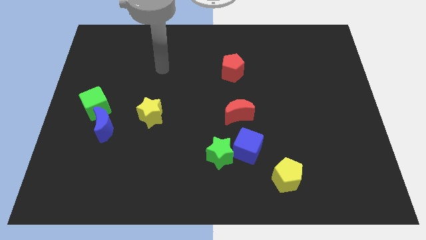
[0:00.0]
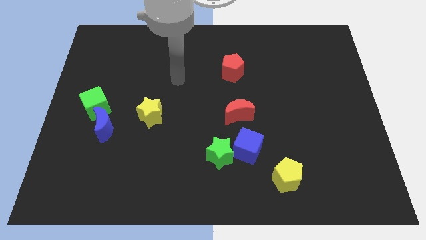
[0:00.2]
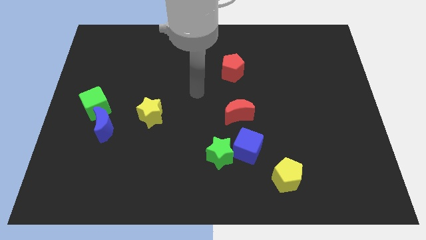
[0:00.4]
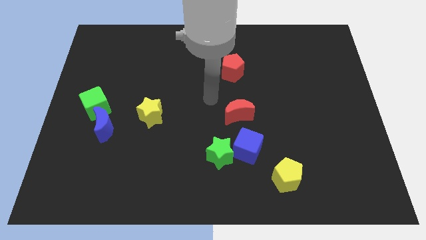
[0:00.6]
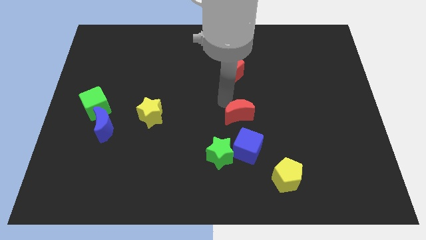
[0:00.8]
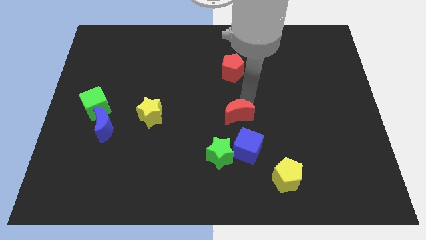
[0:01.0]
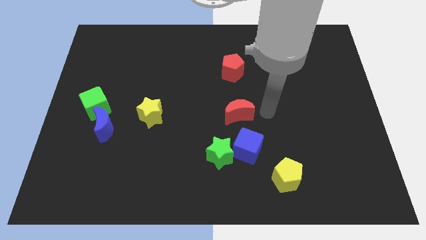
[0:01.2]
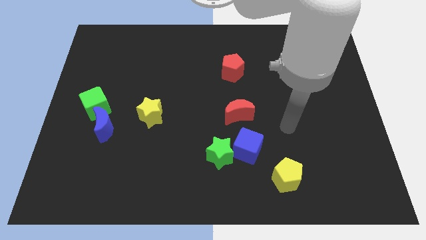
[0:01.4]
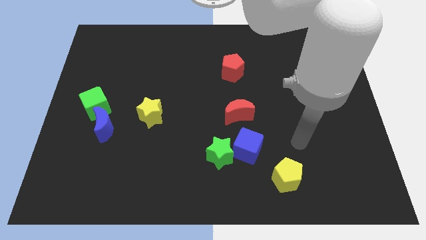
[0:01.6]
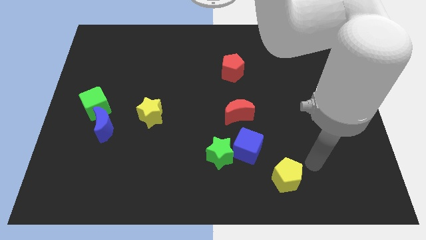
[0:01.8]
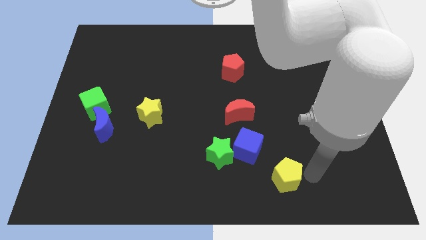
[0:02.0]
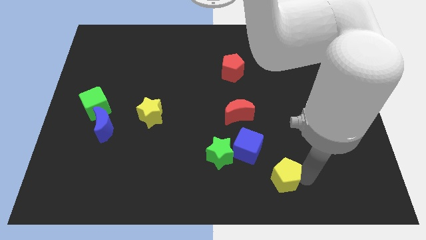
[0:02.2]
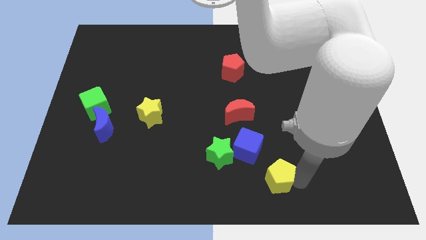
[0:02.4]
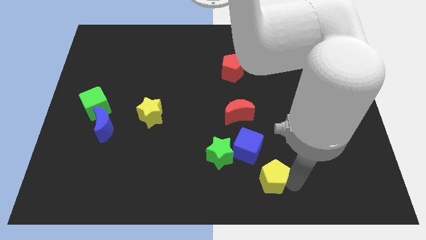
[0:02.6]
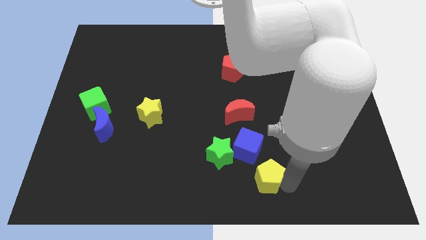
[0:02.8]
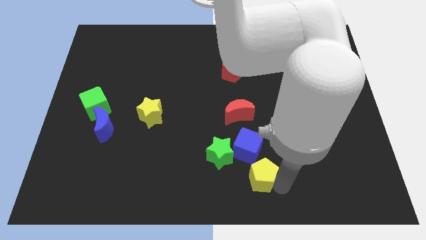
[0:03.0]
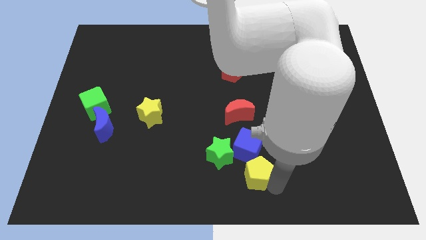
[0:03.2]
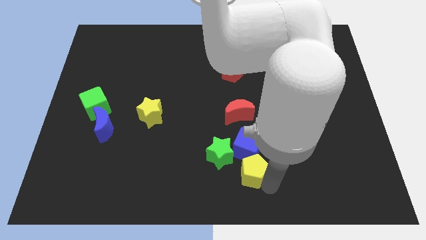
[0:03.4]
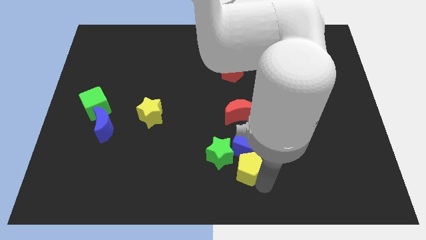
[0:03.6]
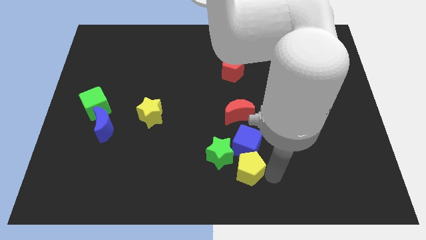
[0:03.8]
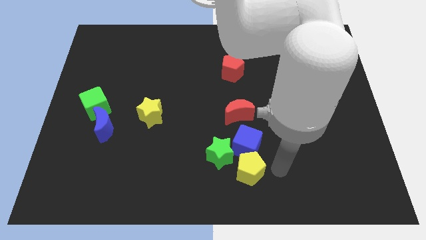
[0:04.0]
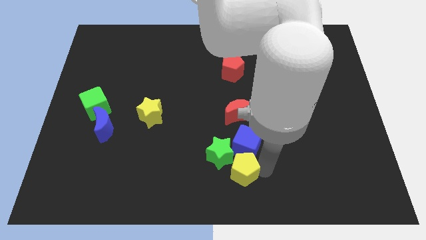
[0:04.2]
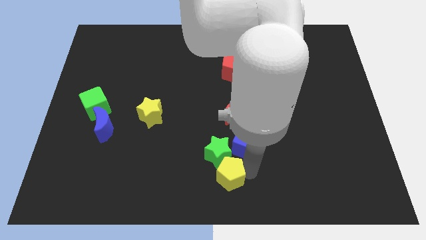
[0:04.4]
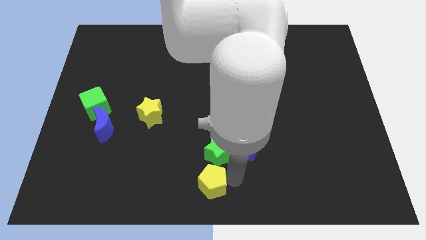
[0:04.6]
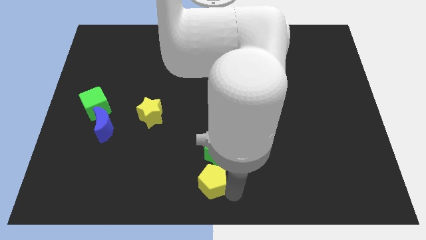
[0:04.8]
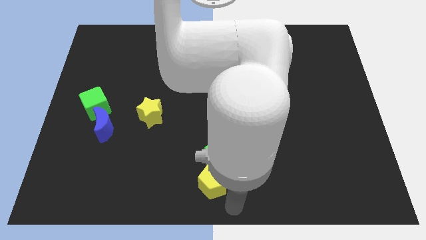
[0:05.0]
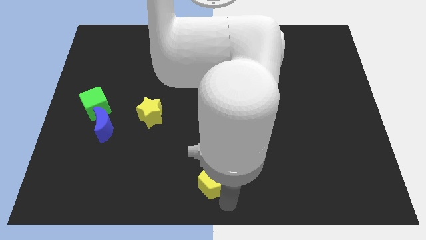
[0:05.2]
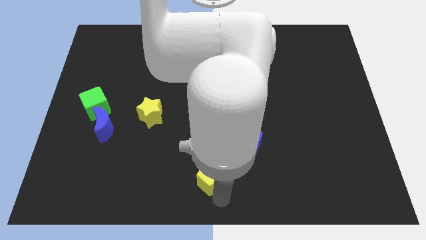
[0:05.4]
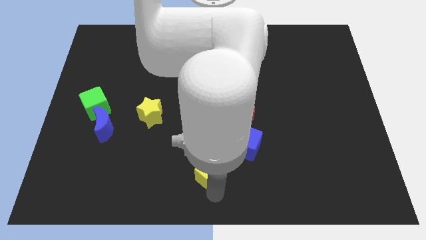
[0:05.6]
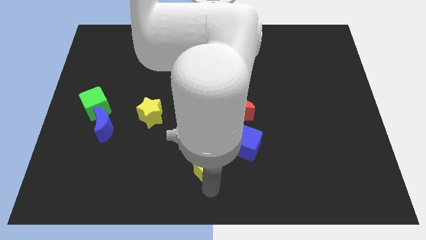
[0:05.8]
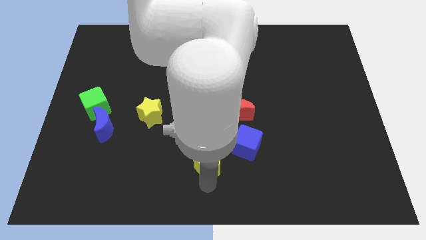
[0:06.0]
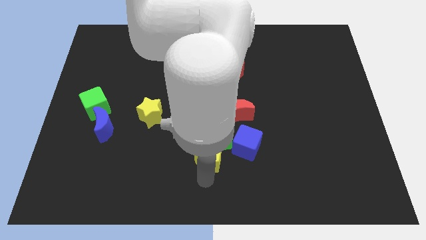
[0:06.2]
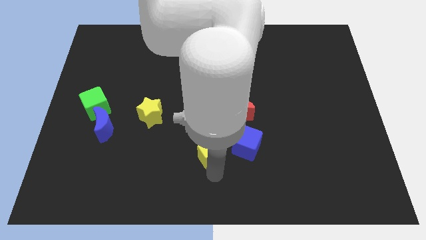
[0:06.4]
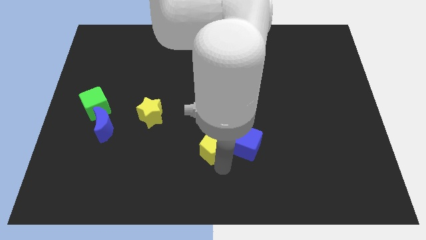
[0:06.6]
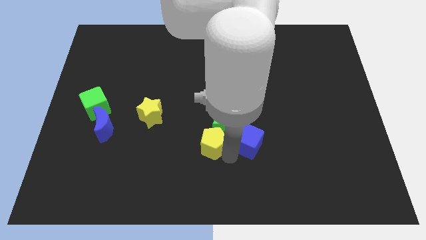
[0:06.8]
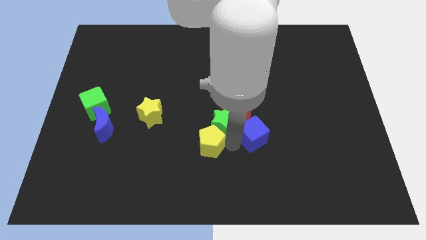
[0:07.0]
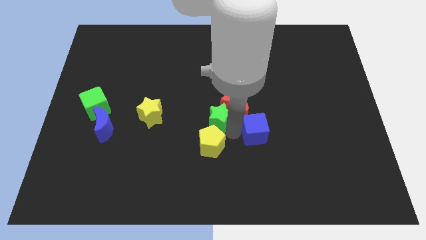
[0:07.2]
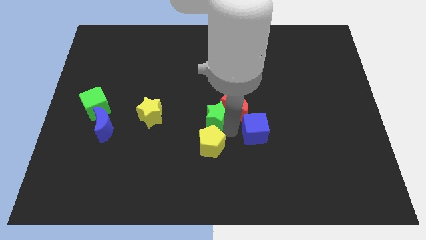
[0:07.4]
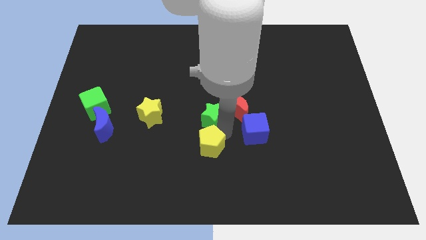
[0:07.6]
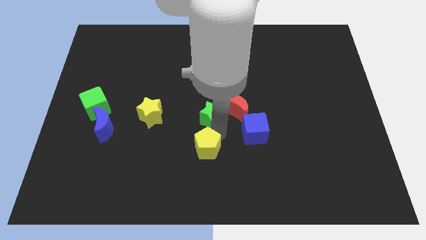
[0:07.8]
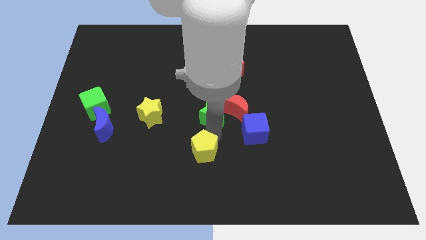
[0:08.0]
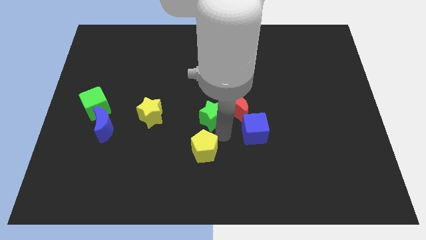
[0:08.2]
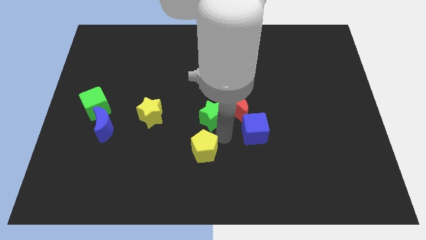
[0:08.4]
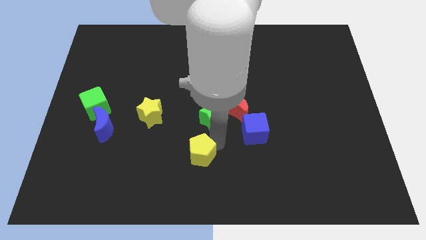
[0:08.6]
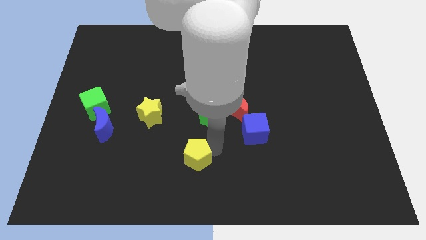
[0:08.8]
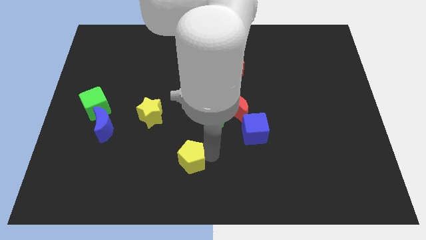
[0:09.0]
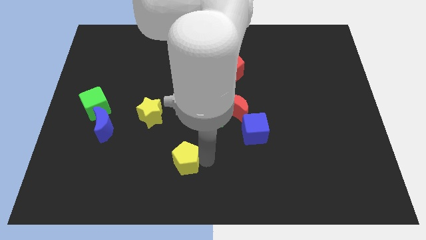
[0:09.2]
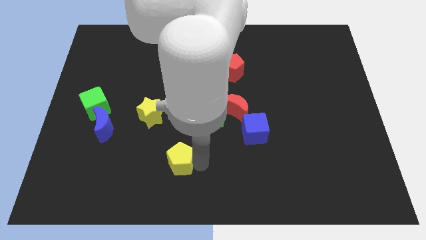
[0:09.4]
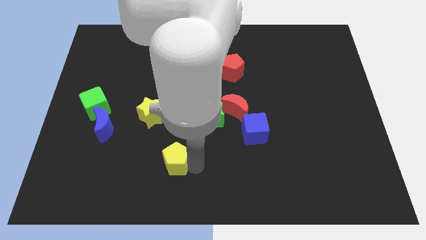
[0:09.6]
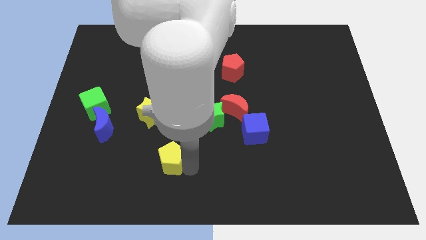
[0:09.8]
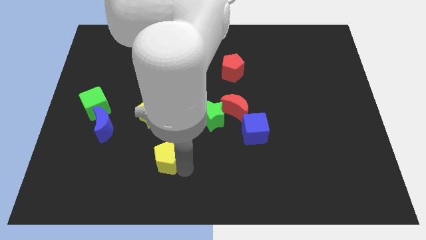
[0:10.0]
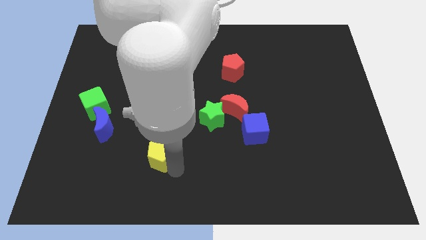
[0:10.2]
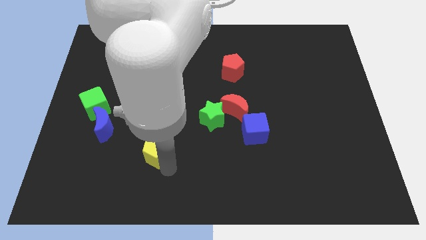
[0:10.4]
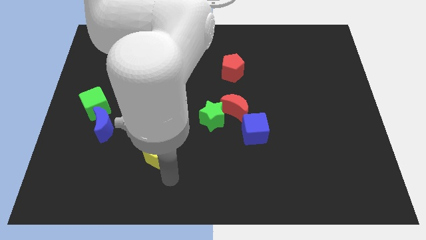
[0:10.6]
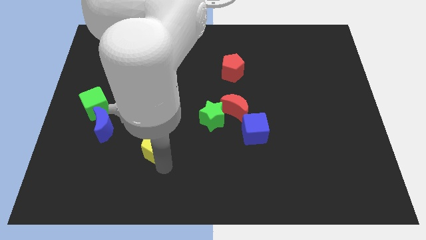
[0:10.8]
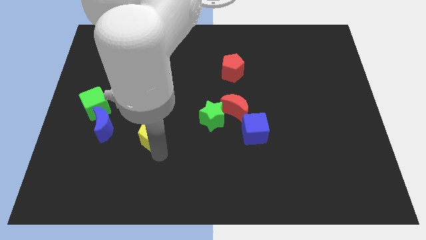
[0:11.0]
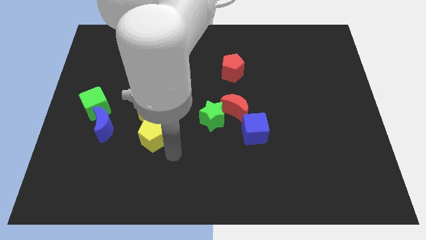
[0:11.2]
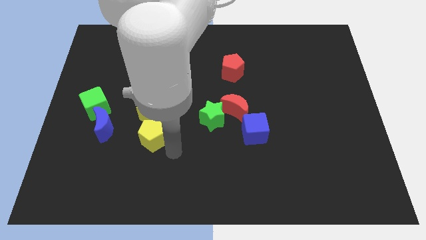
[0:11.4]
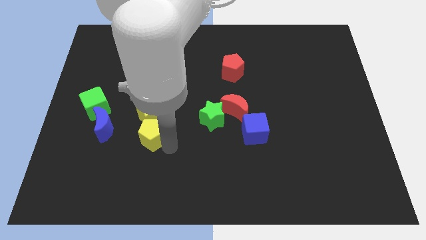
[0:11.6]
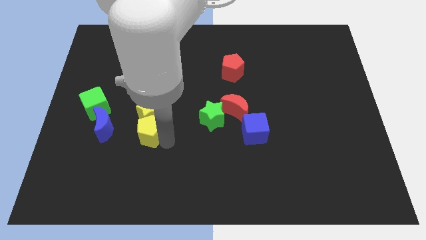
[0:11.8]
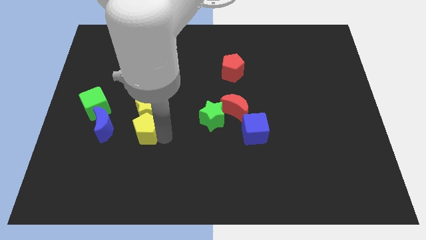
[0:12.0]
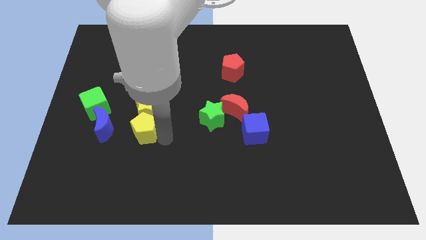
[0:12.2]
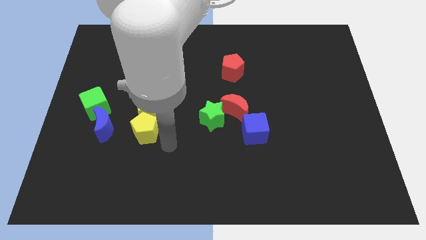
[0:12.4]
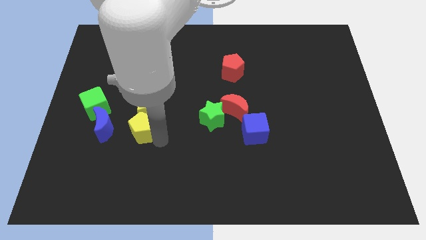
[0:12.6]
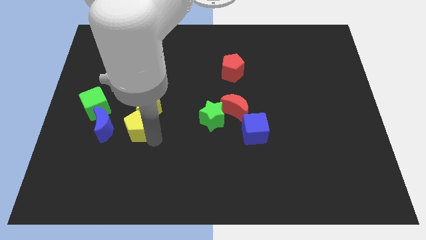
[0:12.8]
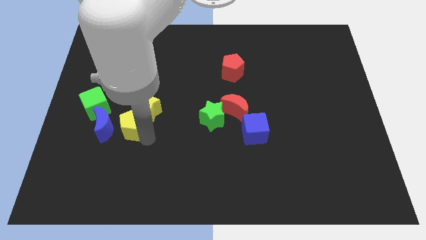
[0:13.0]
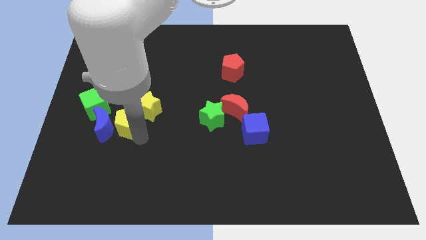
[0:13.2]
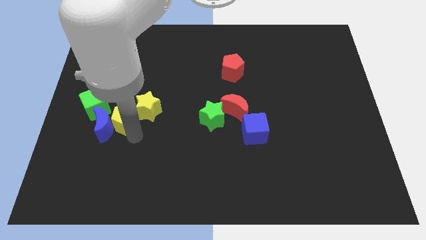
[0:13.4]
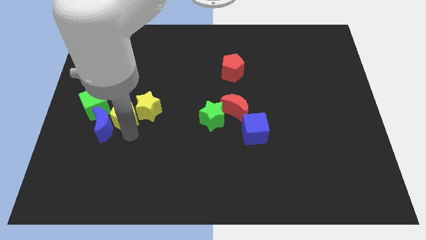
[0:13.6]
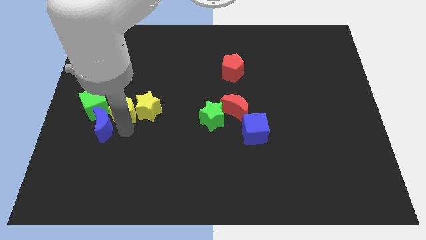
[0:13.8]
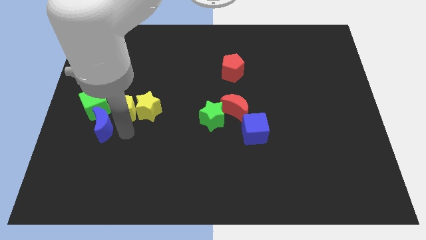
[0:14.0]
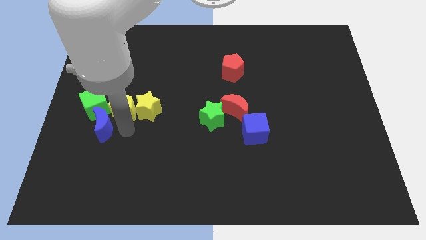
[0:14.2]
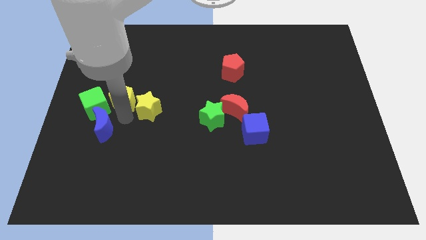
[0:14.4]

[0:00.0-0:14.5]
put the yellow pentagon to the top right of the green cube
